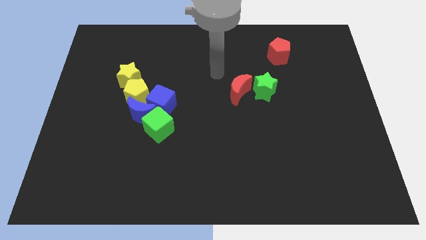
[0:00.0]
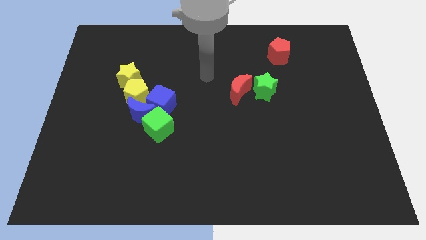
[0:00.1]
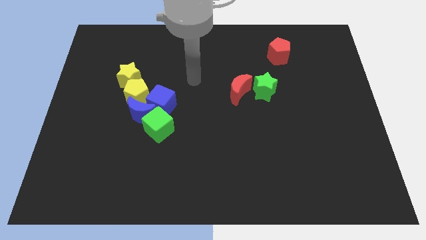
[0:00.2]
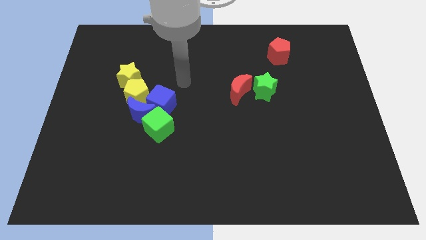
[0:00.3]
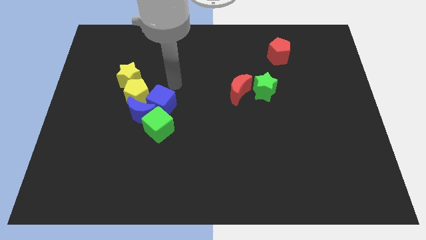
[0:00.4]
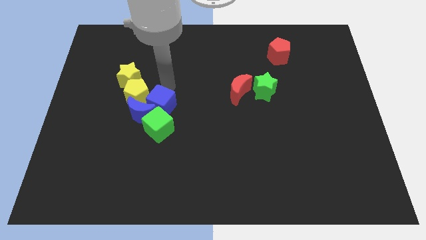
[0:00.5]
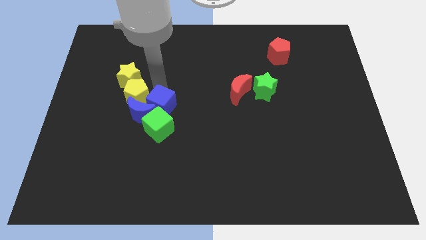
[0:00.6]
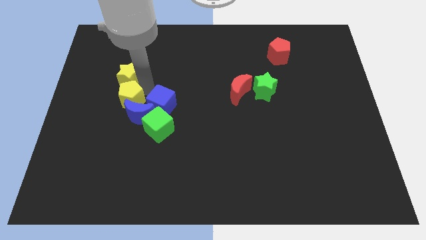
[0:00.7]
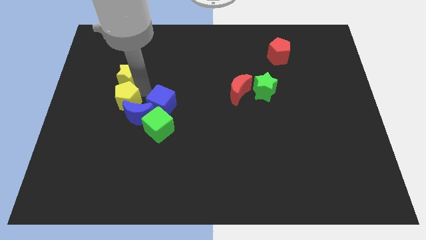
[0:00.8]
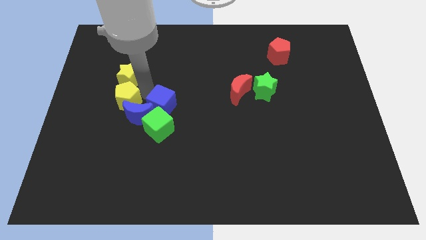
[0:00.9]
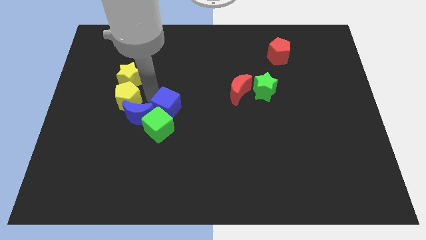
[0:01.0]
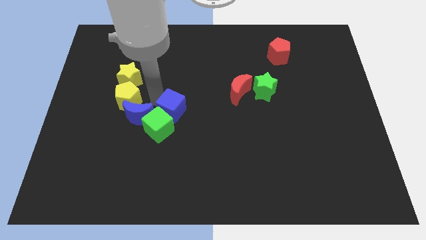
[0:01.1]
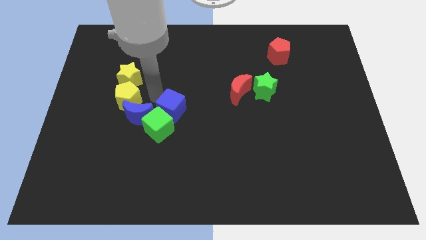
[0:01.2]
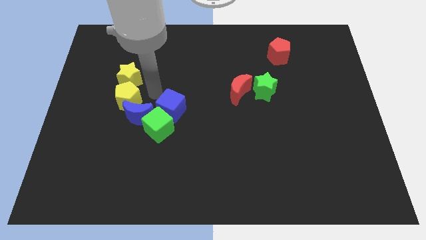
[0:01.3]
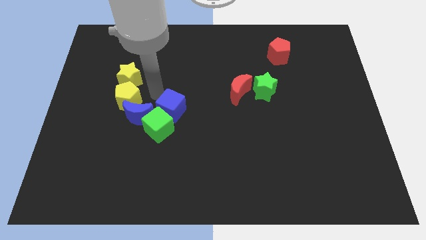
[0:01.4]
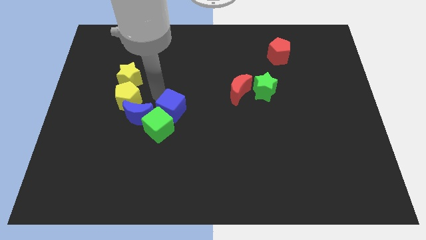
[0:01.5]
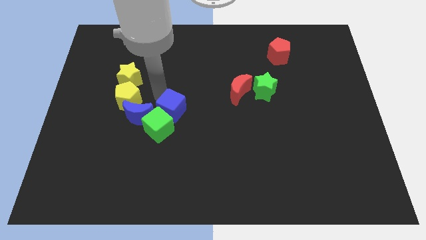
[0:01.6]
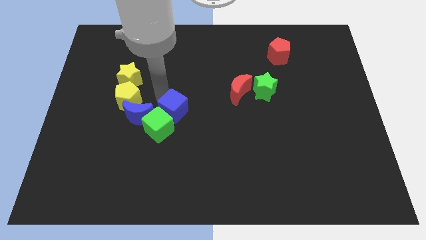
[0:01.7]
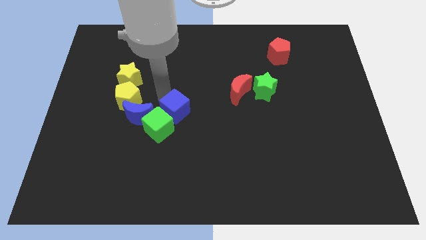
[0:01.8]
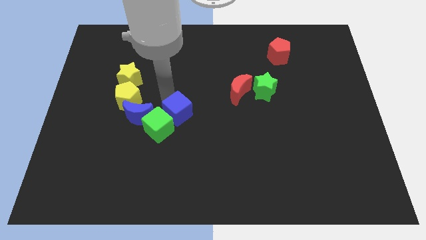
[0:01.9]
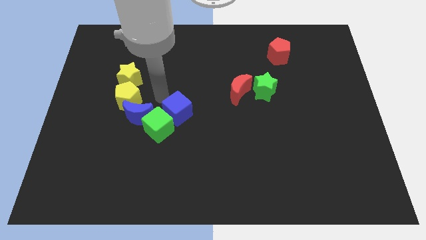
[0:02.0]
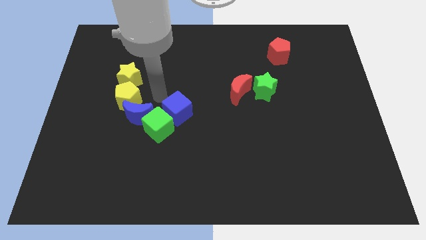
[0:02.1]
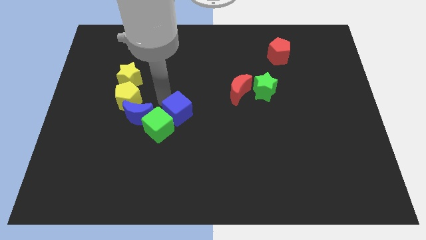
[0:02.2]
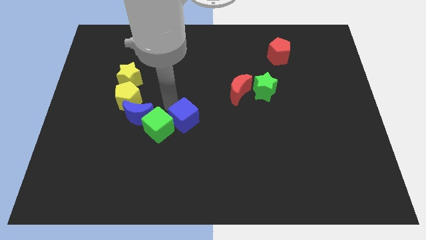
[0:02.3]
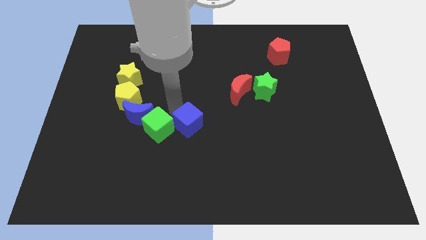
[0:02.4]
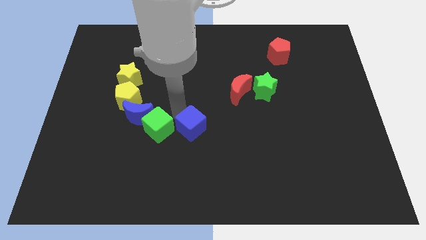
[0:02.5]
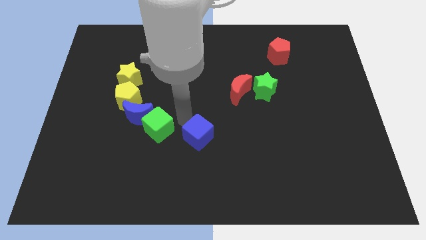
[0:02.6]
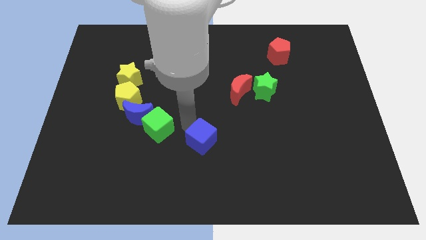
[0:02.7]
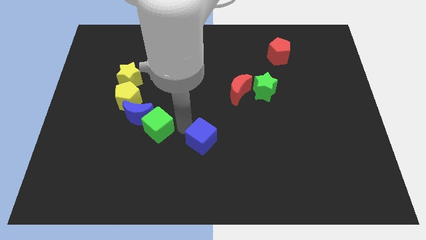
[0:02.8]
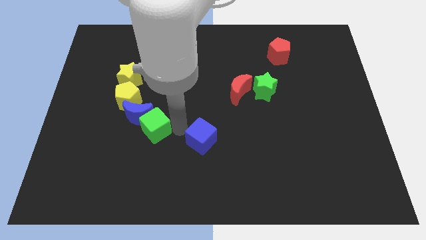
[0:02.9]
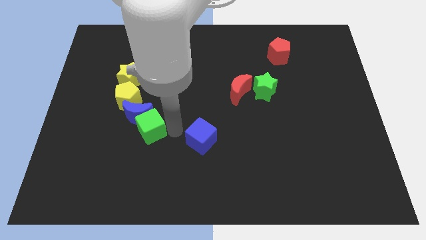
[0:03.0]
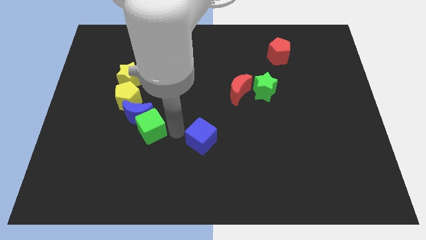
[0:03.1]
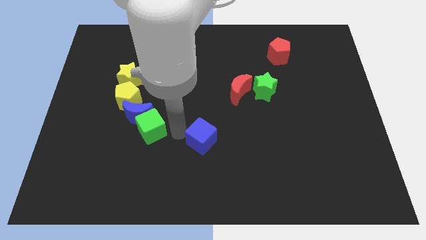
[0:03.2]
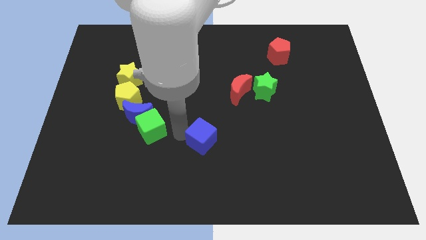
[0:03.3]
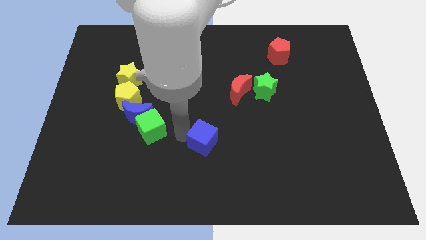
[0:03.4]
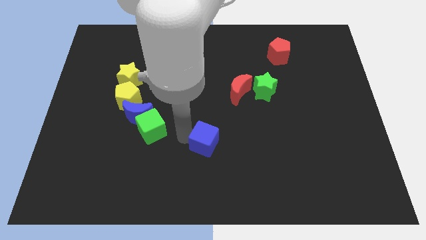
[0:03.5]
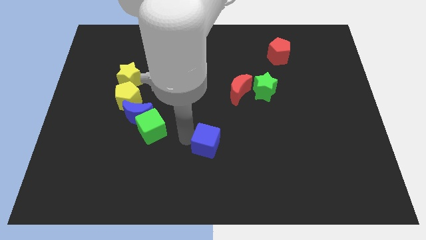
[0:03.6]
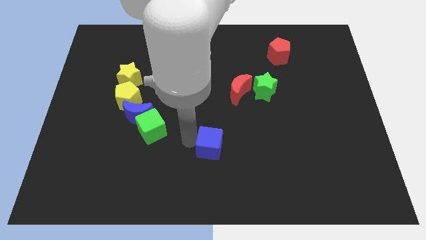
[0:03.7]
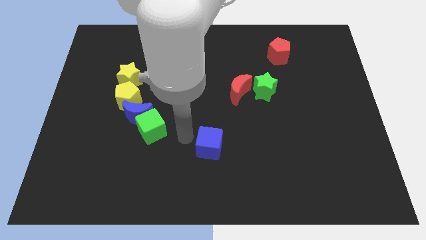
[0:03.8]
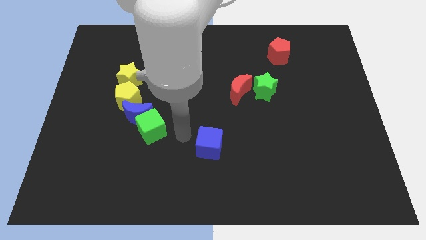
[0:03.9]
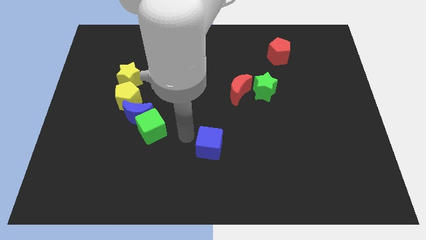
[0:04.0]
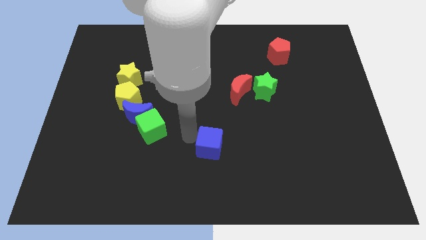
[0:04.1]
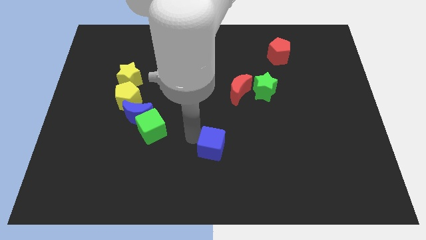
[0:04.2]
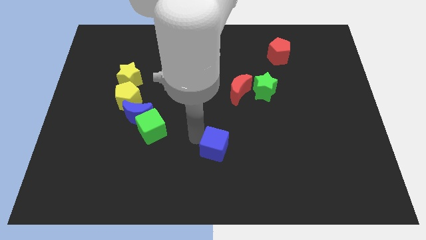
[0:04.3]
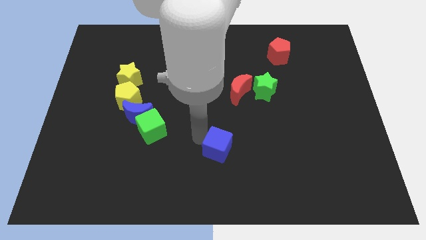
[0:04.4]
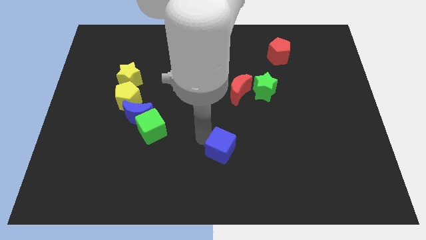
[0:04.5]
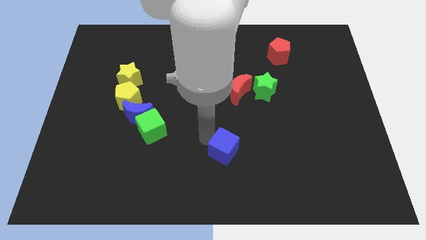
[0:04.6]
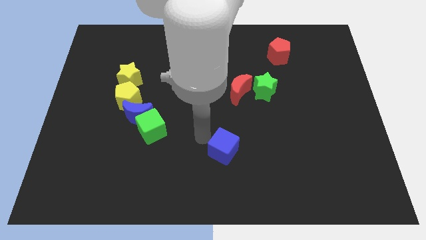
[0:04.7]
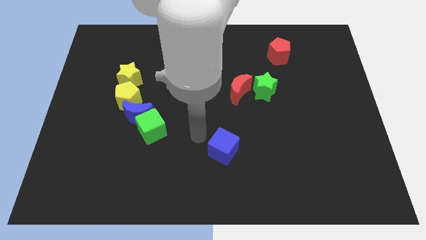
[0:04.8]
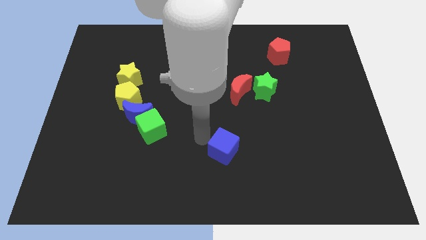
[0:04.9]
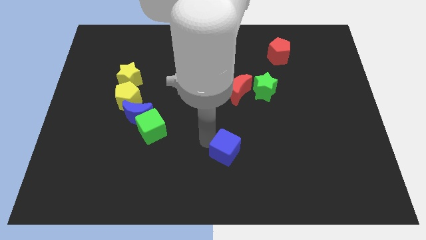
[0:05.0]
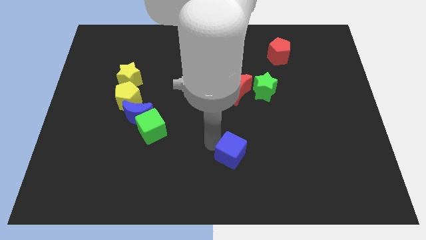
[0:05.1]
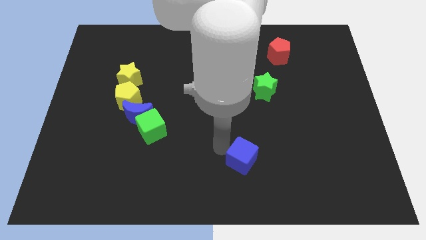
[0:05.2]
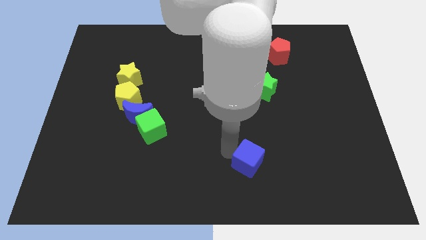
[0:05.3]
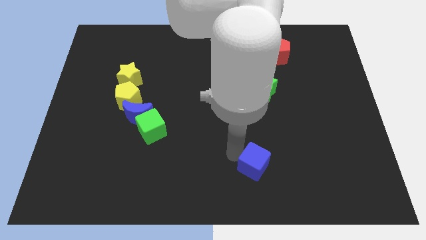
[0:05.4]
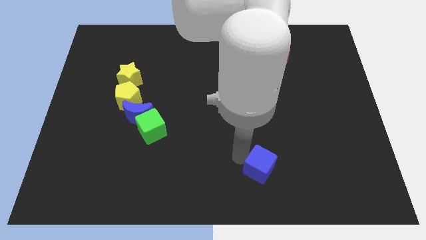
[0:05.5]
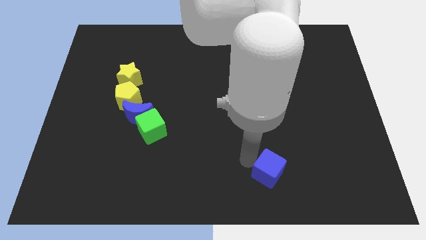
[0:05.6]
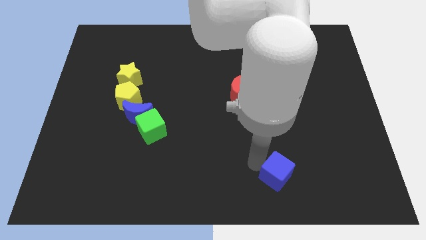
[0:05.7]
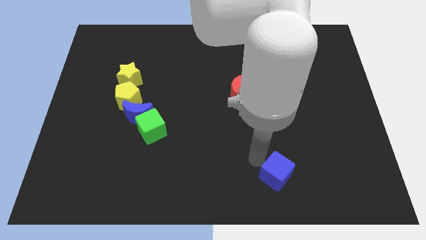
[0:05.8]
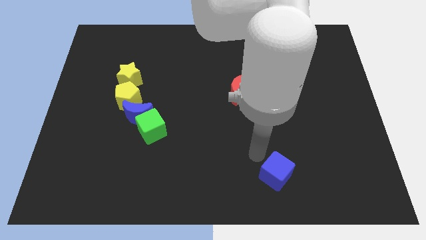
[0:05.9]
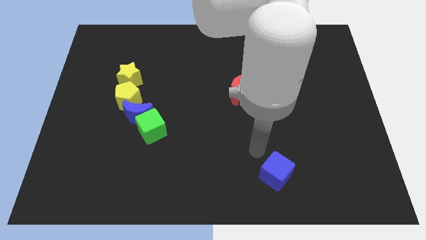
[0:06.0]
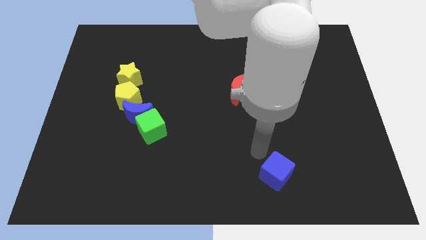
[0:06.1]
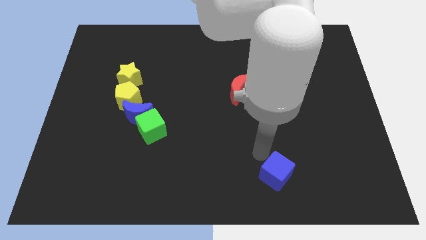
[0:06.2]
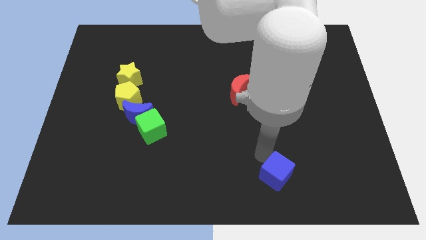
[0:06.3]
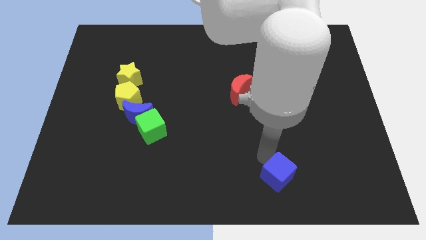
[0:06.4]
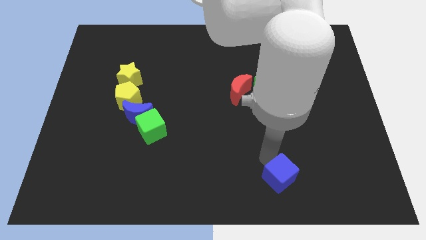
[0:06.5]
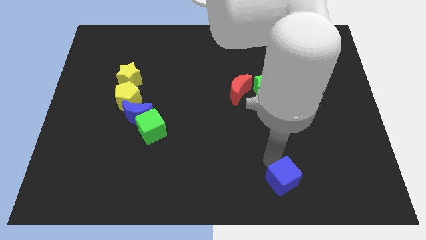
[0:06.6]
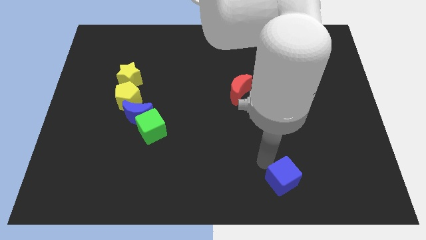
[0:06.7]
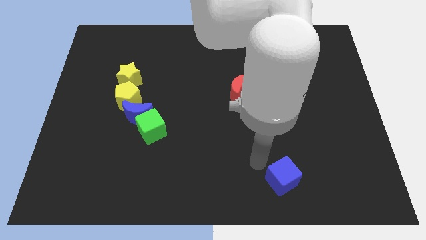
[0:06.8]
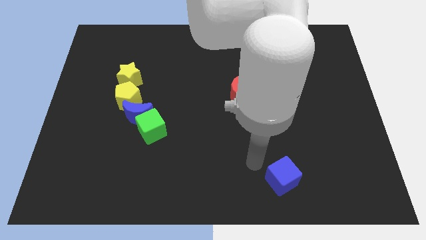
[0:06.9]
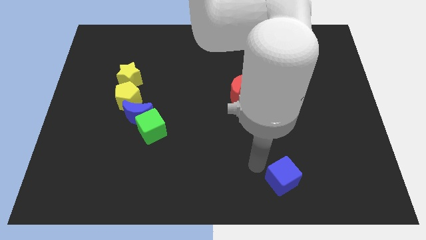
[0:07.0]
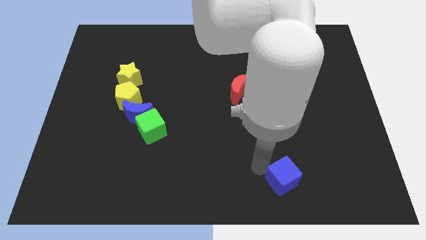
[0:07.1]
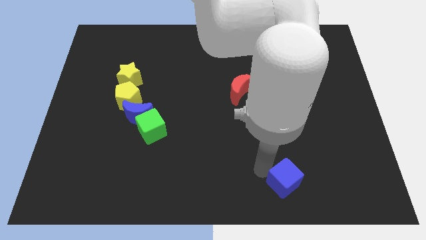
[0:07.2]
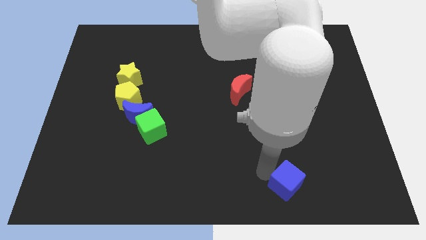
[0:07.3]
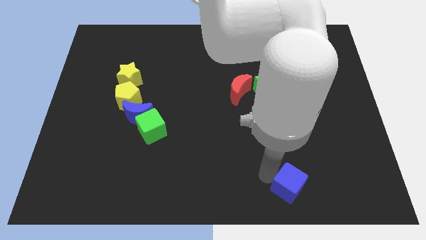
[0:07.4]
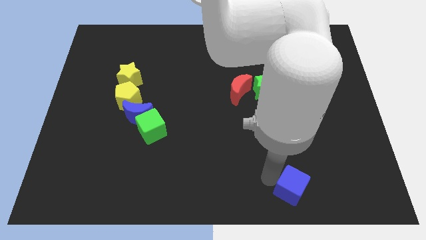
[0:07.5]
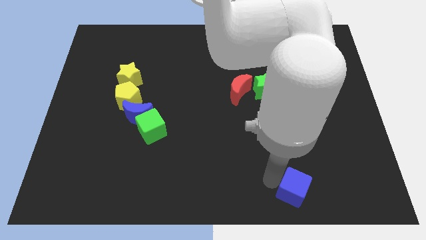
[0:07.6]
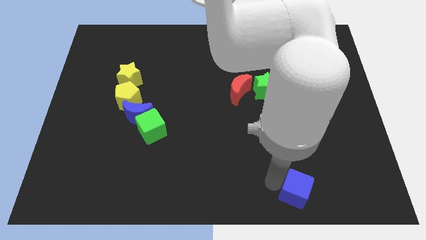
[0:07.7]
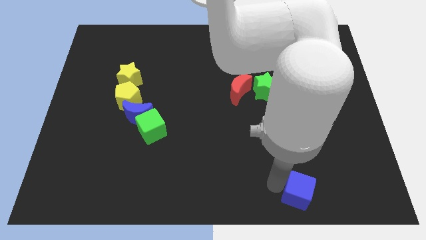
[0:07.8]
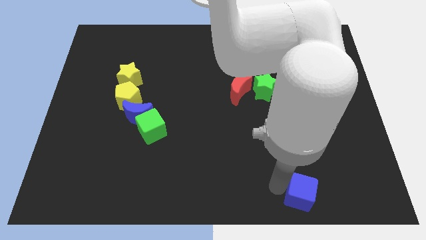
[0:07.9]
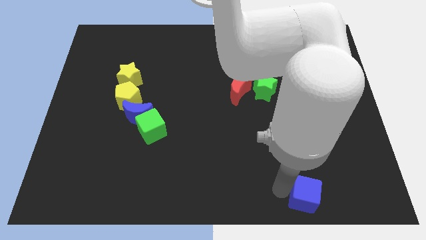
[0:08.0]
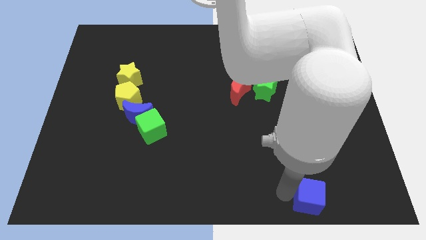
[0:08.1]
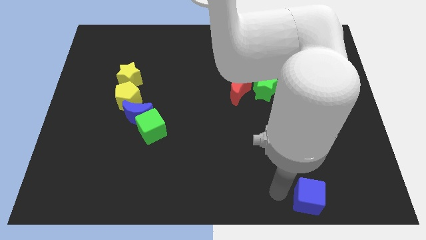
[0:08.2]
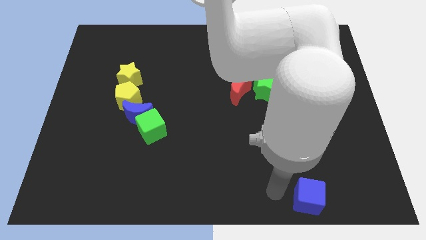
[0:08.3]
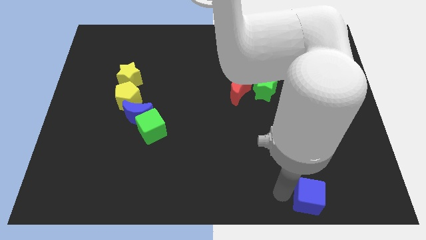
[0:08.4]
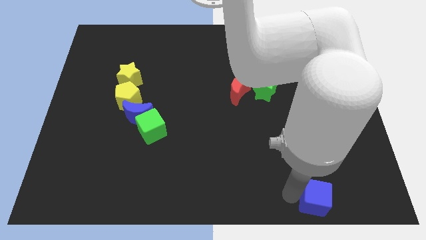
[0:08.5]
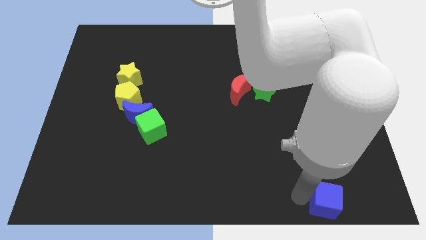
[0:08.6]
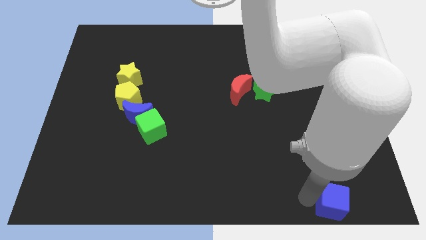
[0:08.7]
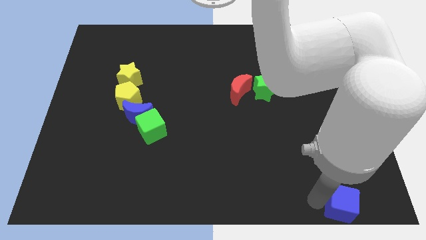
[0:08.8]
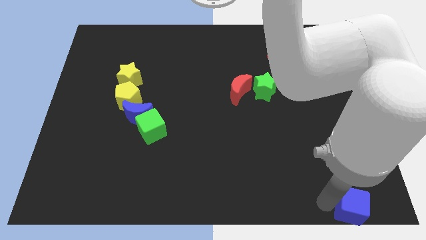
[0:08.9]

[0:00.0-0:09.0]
push the blue cube to the lower right corner
